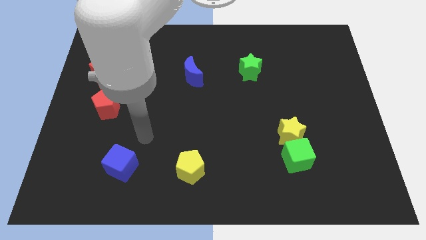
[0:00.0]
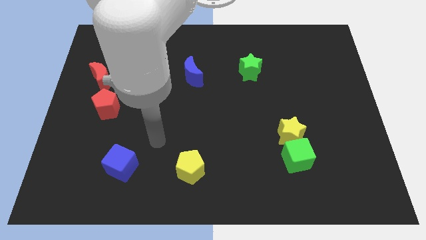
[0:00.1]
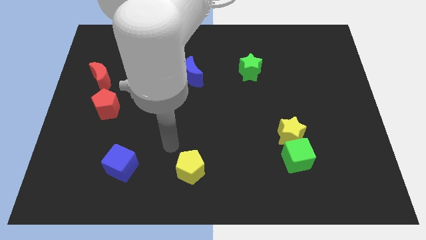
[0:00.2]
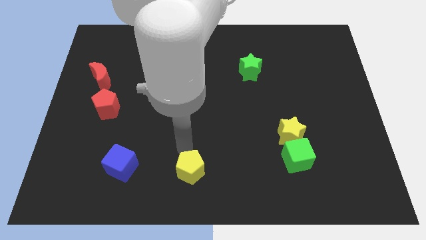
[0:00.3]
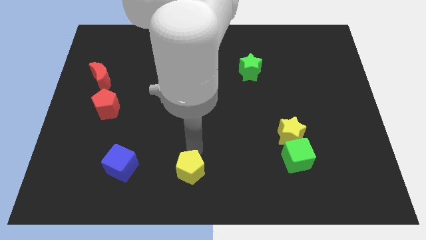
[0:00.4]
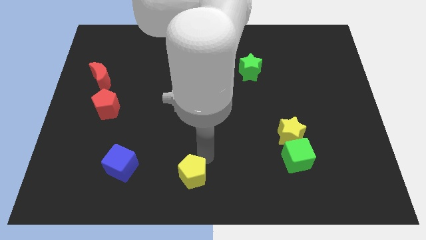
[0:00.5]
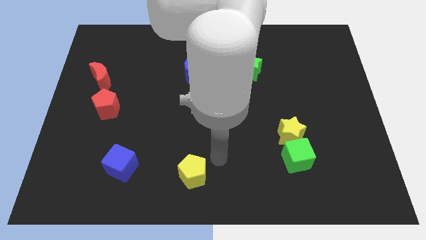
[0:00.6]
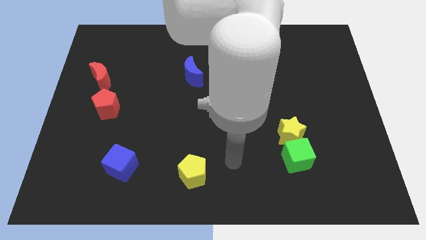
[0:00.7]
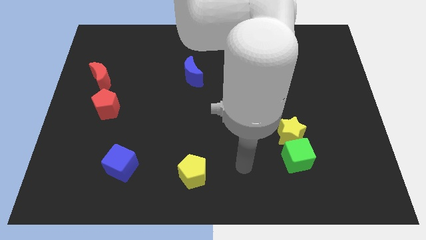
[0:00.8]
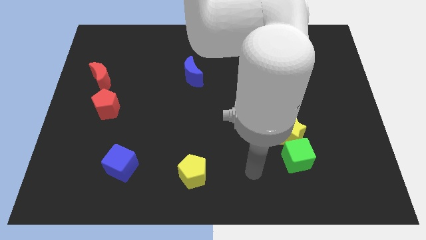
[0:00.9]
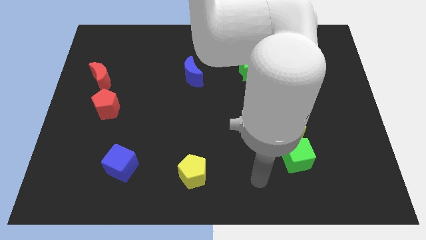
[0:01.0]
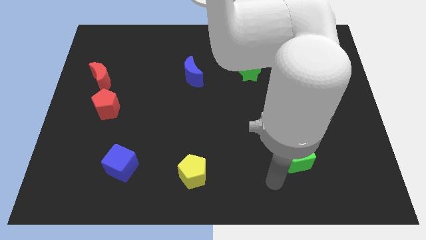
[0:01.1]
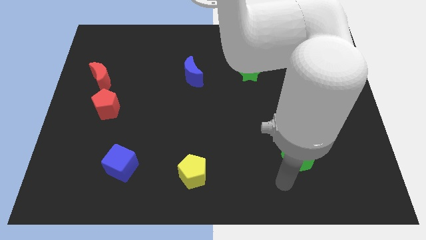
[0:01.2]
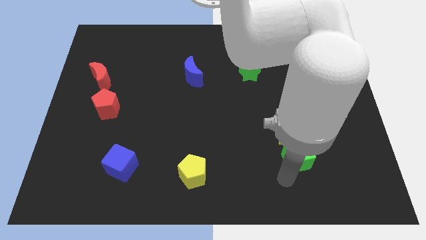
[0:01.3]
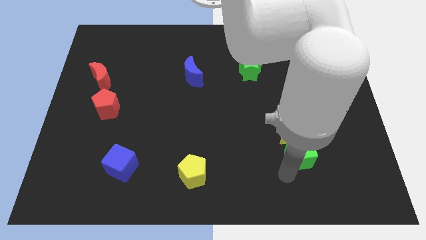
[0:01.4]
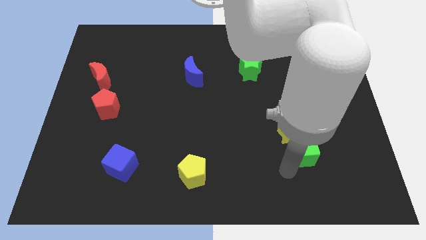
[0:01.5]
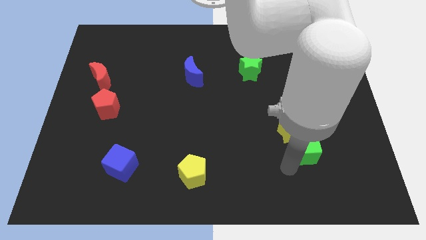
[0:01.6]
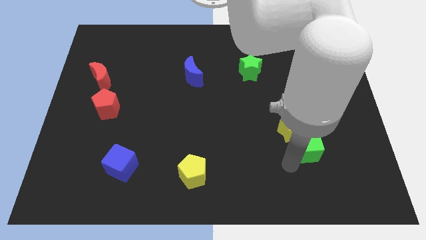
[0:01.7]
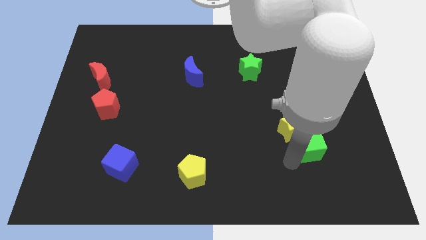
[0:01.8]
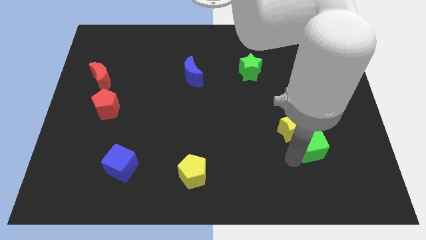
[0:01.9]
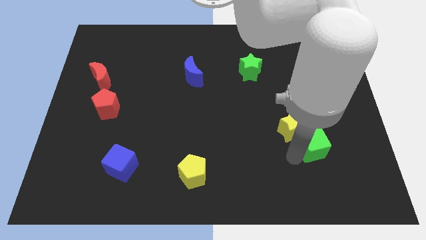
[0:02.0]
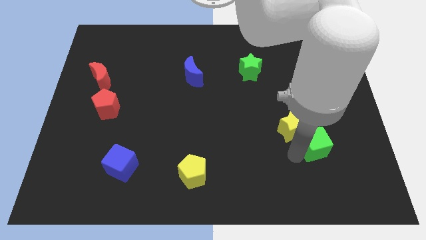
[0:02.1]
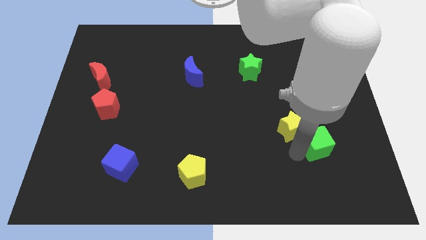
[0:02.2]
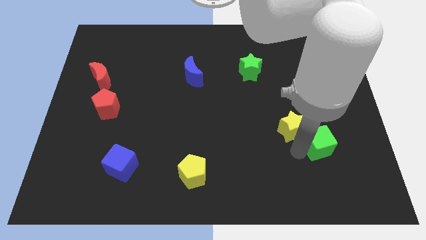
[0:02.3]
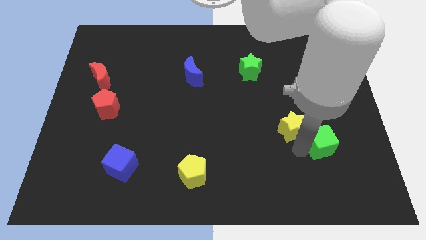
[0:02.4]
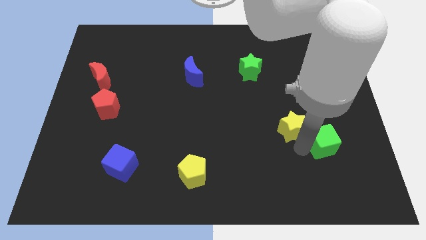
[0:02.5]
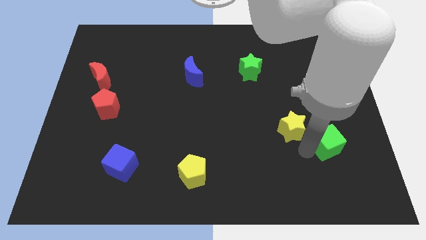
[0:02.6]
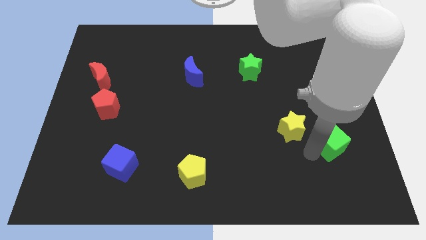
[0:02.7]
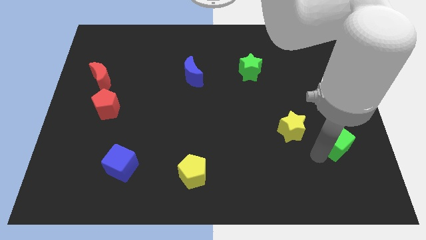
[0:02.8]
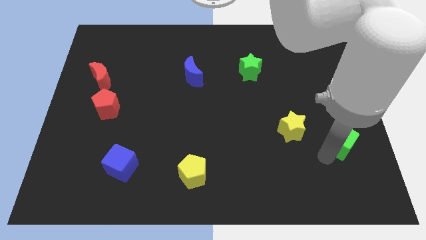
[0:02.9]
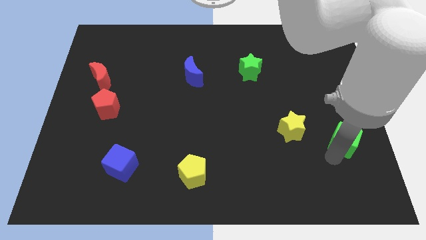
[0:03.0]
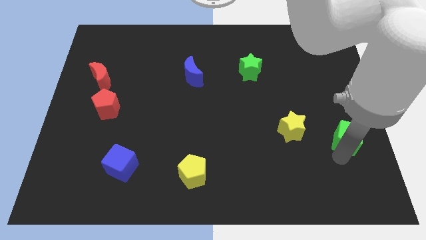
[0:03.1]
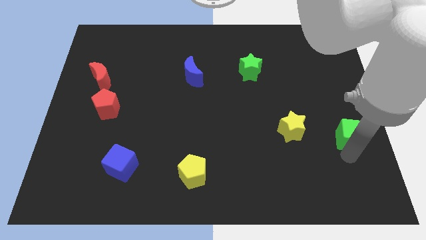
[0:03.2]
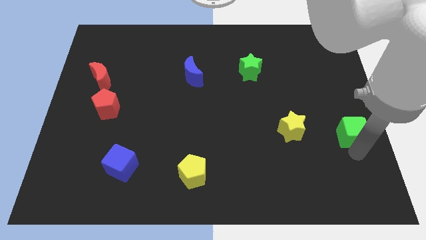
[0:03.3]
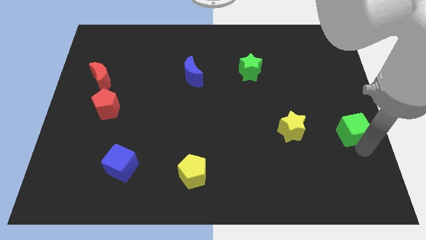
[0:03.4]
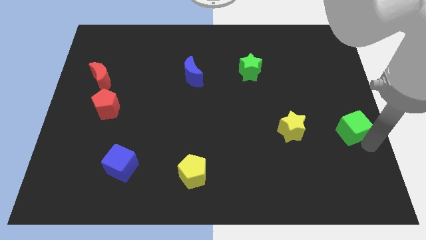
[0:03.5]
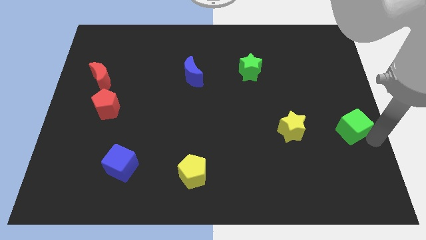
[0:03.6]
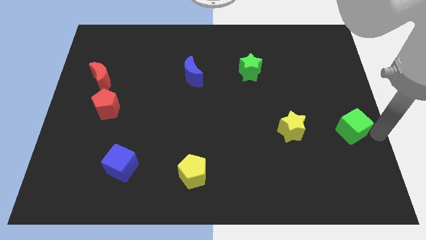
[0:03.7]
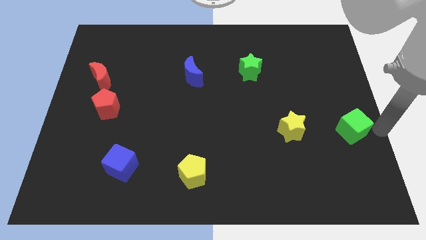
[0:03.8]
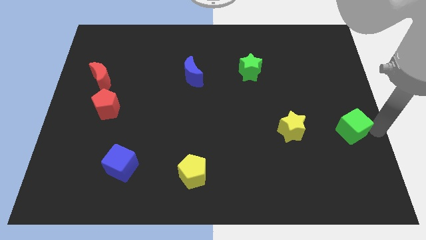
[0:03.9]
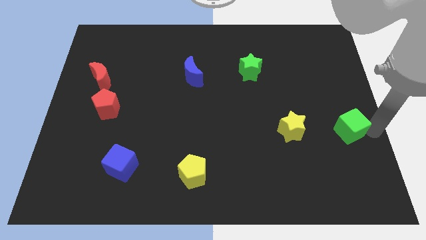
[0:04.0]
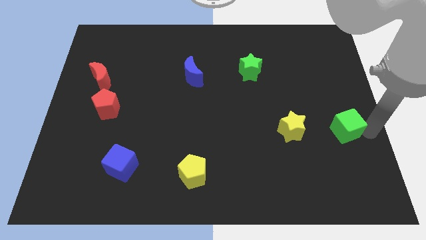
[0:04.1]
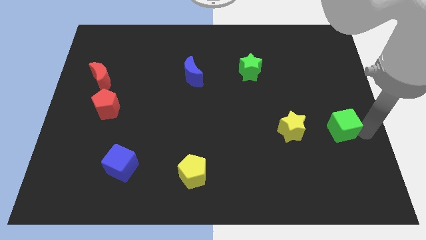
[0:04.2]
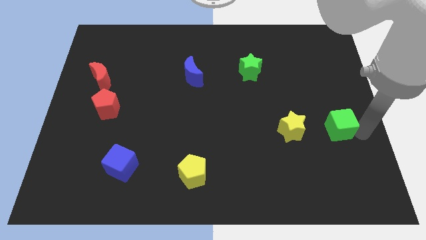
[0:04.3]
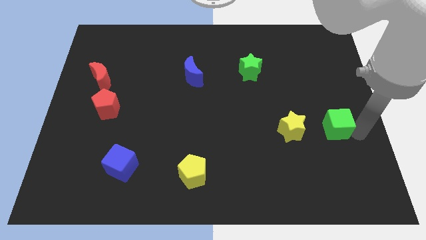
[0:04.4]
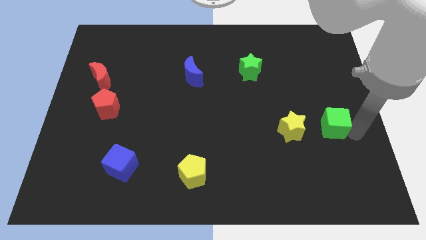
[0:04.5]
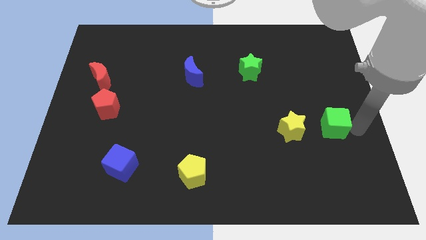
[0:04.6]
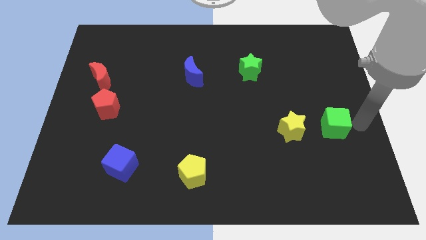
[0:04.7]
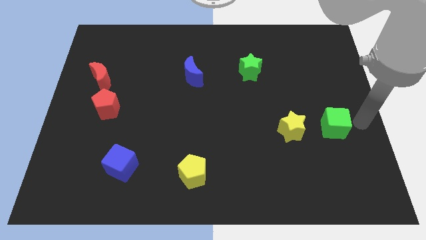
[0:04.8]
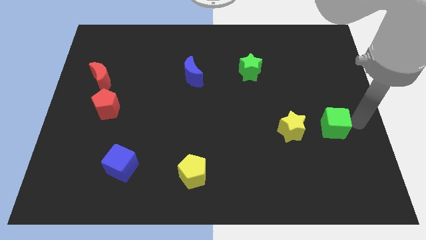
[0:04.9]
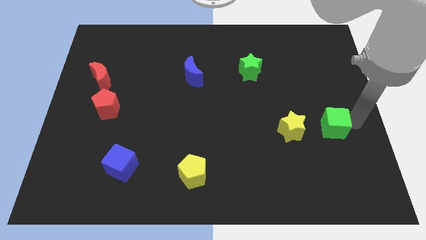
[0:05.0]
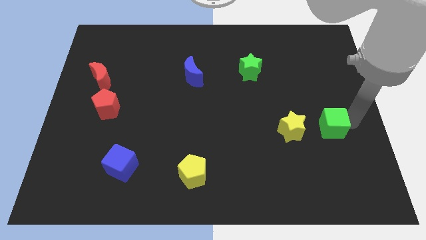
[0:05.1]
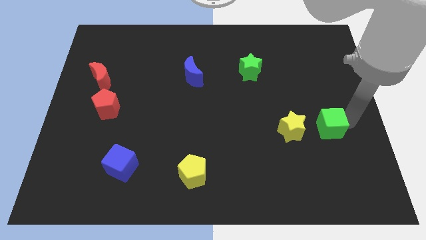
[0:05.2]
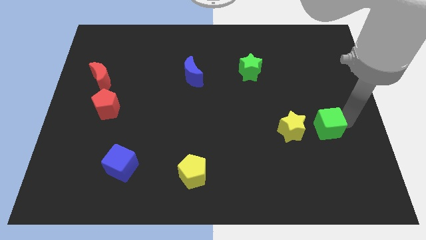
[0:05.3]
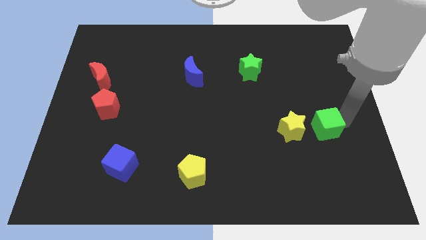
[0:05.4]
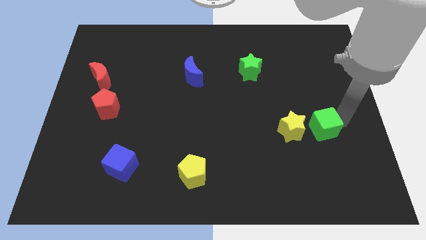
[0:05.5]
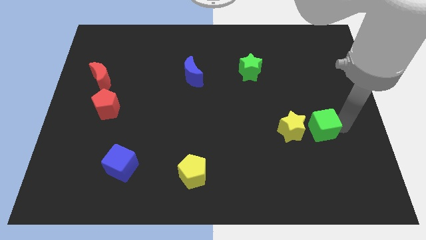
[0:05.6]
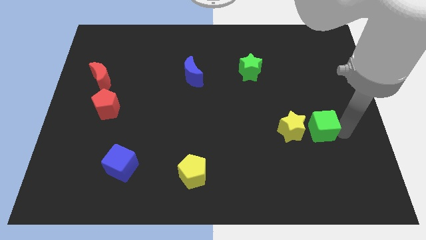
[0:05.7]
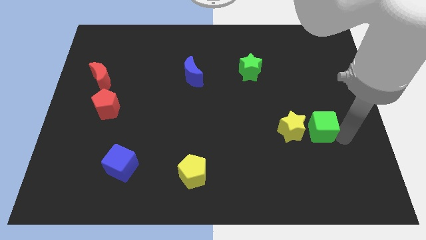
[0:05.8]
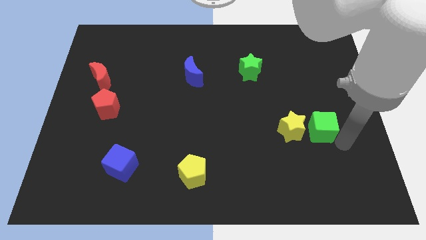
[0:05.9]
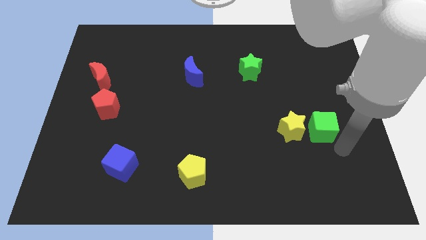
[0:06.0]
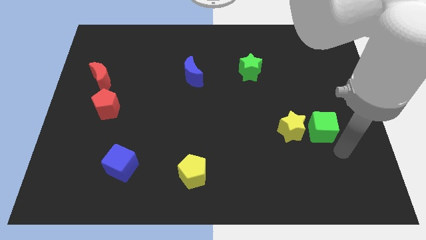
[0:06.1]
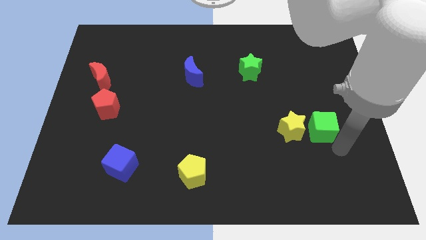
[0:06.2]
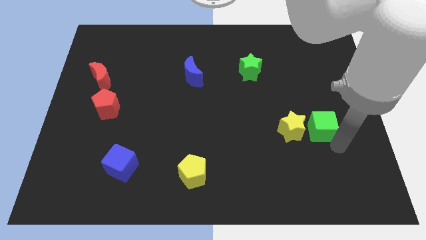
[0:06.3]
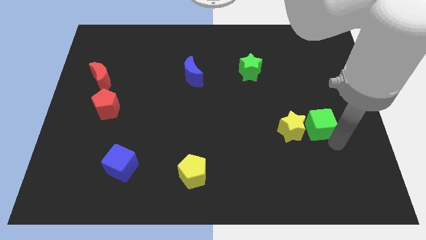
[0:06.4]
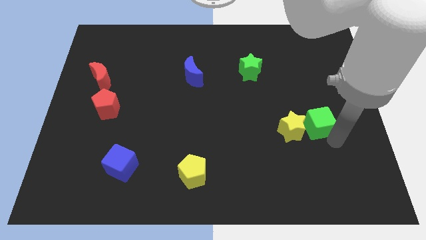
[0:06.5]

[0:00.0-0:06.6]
slightly slide the green cube upwards

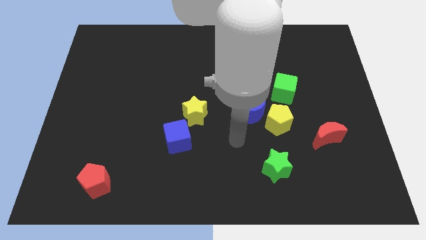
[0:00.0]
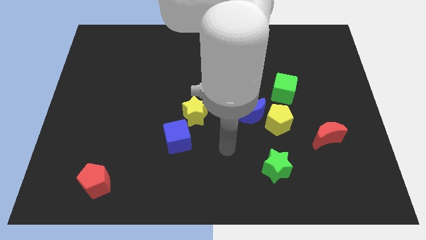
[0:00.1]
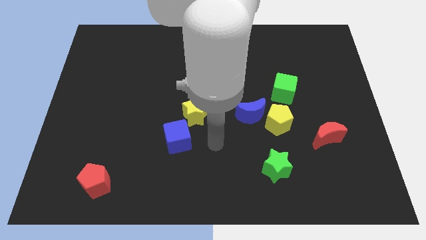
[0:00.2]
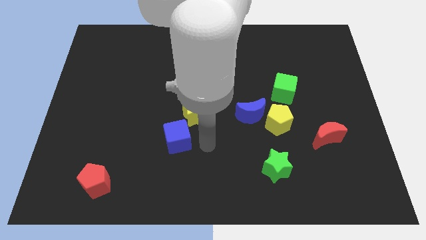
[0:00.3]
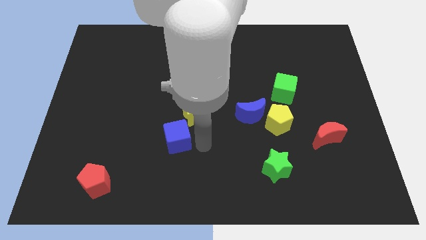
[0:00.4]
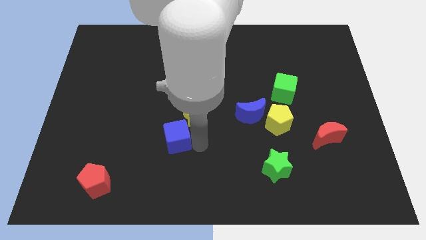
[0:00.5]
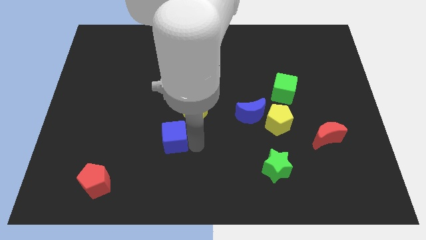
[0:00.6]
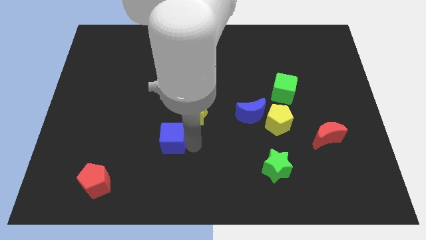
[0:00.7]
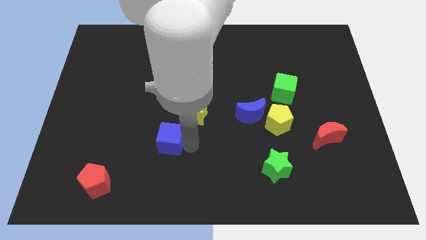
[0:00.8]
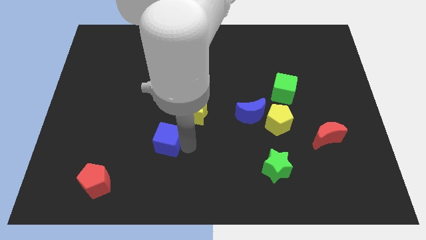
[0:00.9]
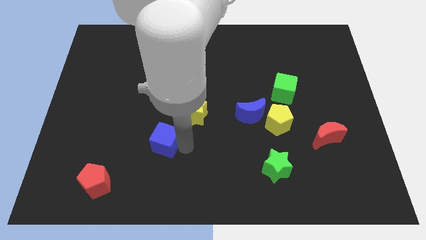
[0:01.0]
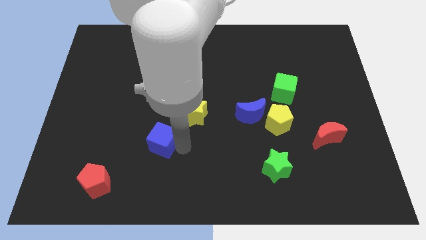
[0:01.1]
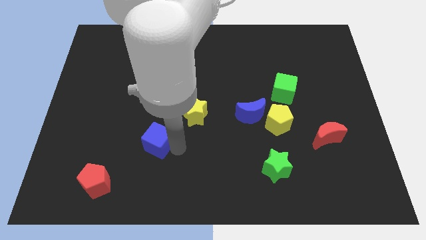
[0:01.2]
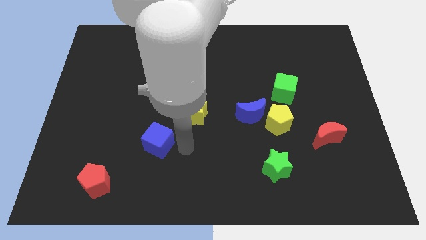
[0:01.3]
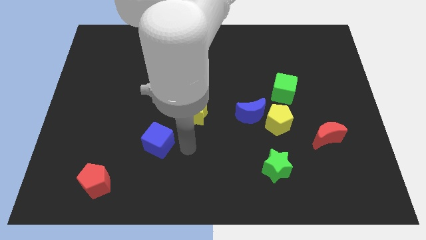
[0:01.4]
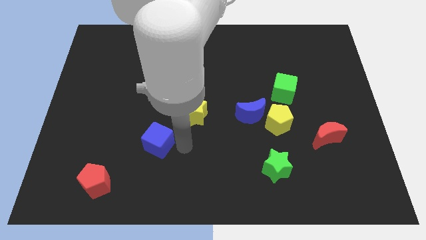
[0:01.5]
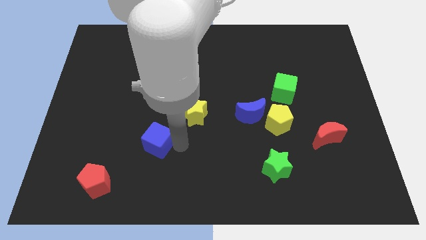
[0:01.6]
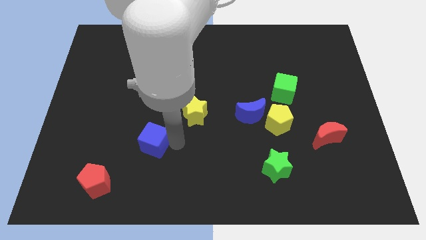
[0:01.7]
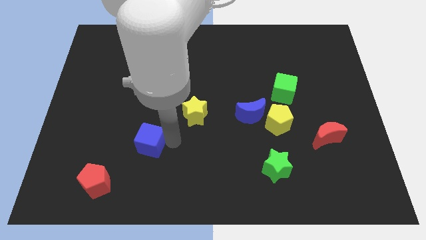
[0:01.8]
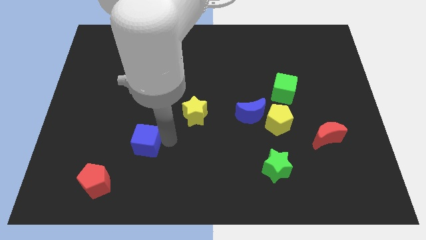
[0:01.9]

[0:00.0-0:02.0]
slightly move the blue cube left
